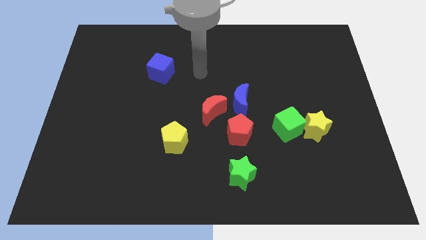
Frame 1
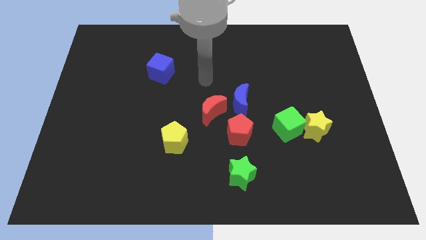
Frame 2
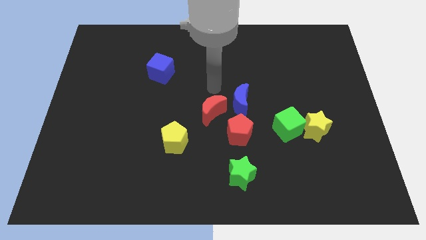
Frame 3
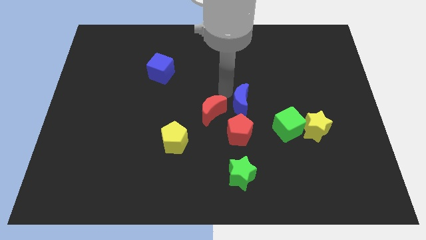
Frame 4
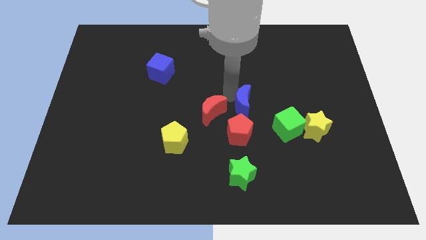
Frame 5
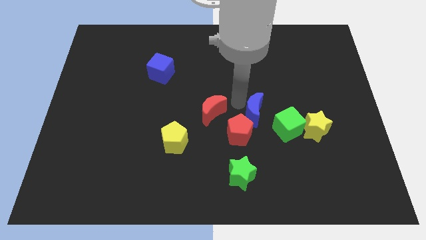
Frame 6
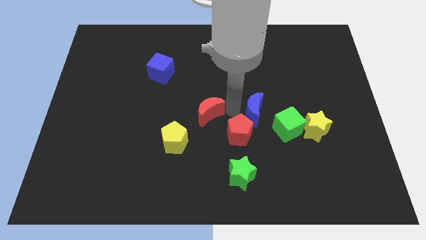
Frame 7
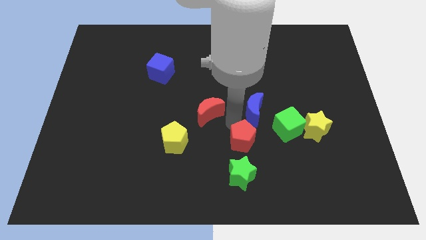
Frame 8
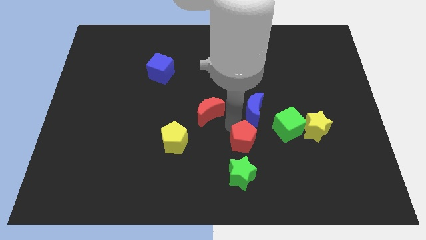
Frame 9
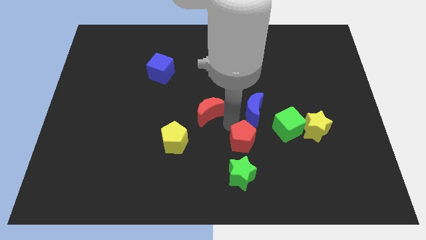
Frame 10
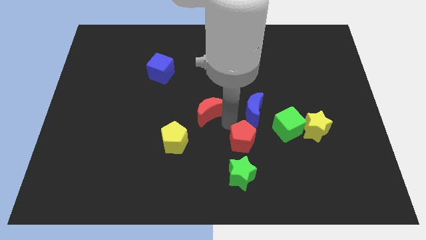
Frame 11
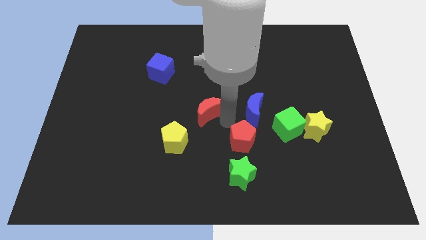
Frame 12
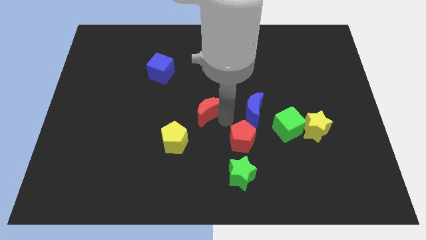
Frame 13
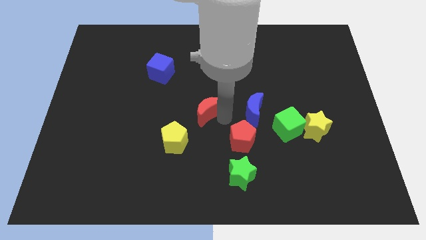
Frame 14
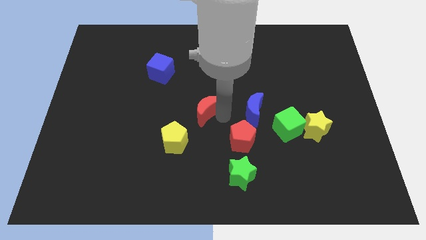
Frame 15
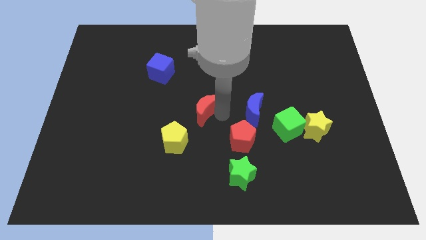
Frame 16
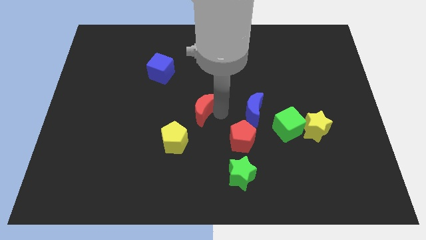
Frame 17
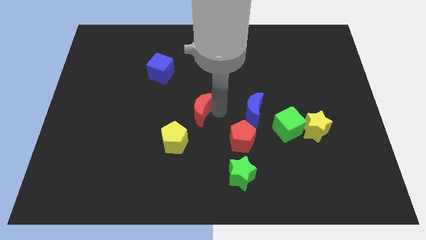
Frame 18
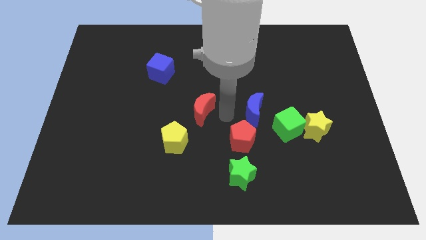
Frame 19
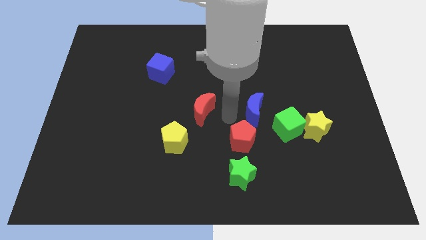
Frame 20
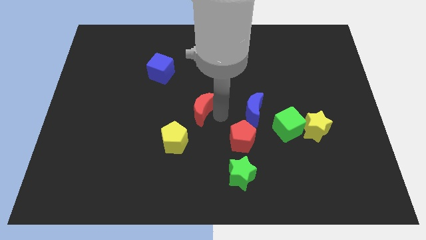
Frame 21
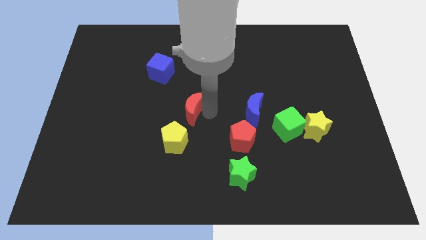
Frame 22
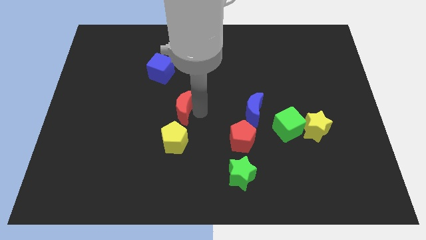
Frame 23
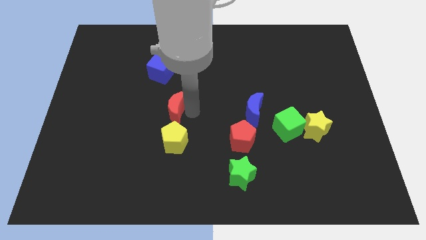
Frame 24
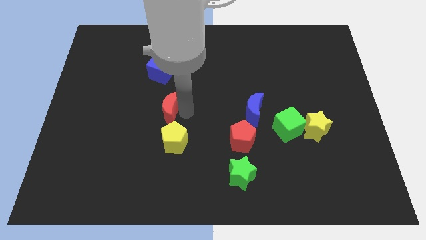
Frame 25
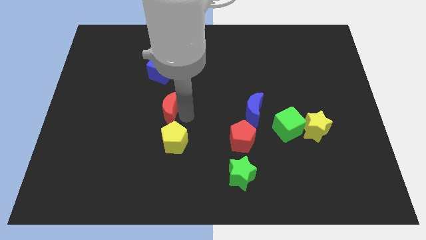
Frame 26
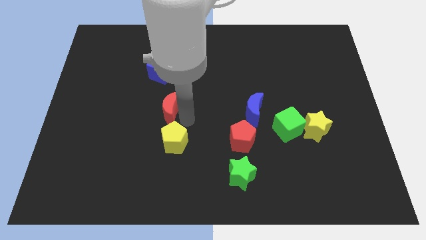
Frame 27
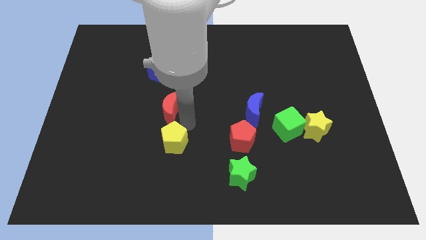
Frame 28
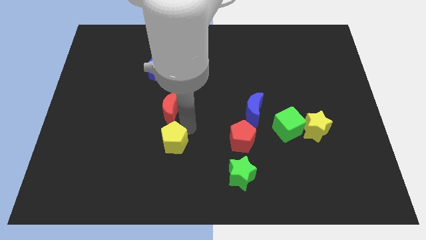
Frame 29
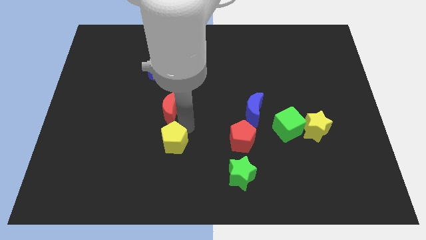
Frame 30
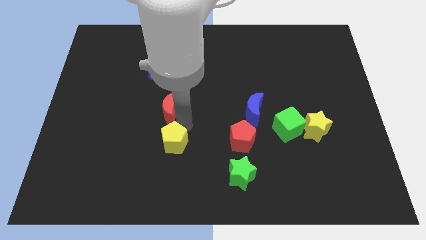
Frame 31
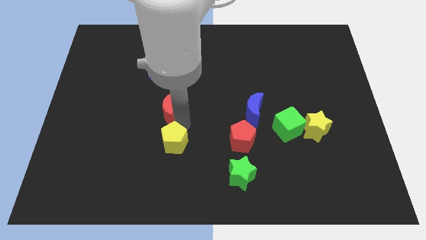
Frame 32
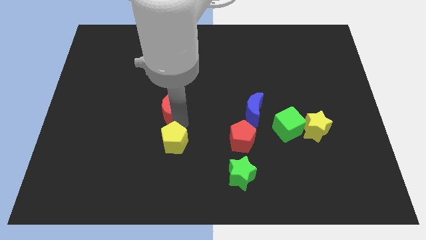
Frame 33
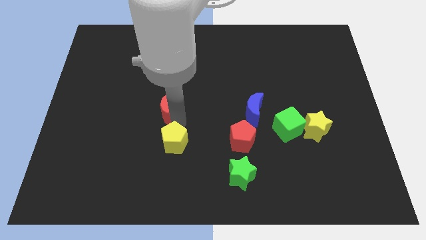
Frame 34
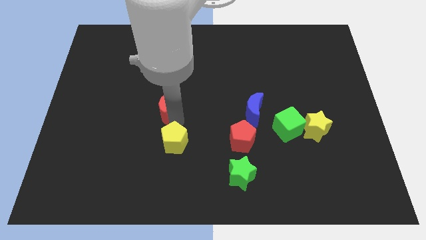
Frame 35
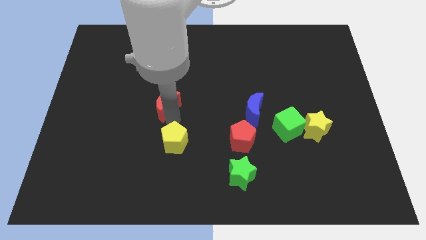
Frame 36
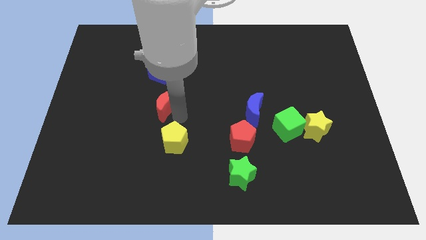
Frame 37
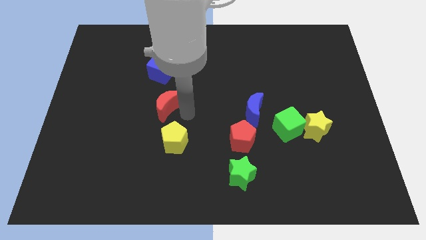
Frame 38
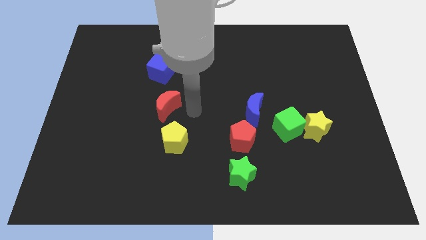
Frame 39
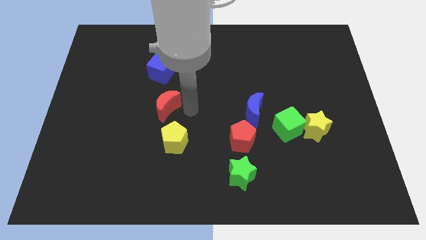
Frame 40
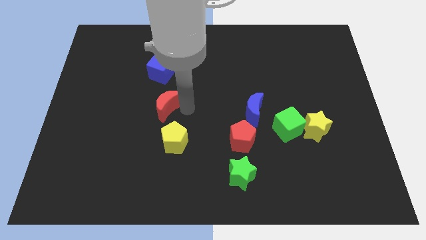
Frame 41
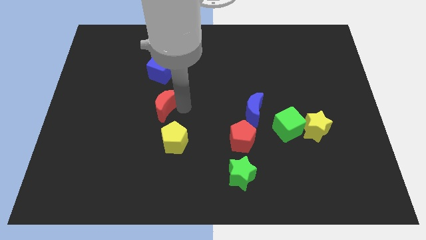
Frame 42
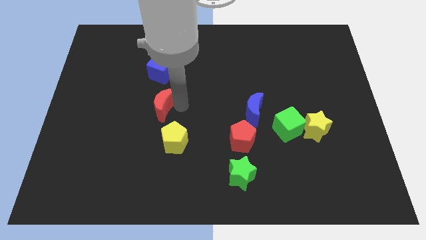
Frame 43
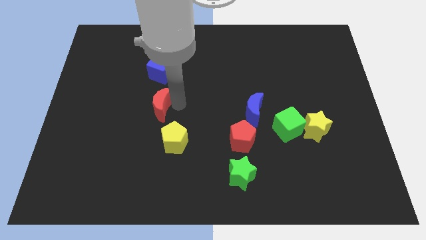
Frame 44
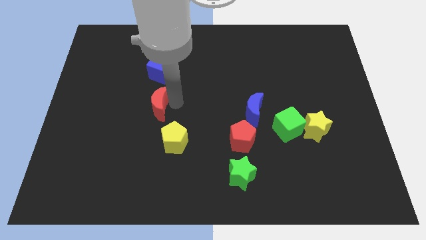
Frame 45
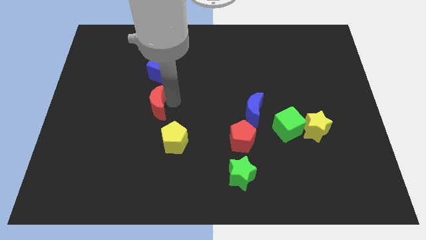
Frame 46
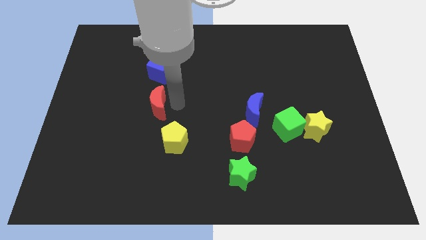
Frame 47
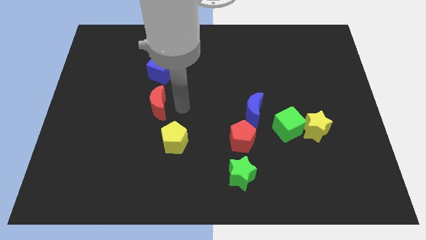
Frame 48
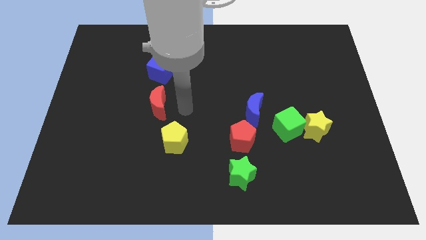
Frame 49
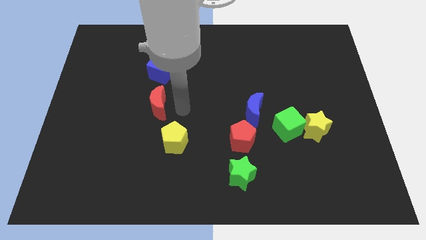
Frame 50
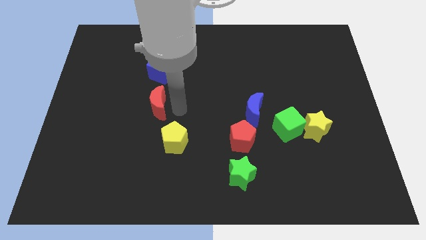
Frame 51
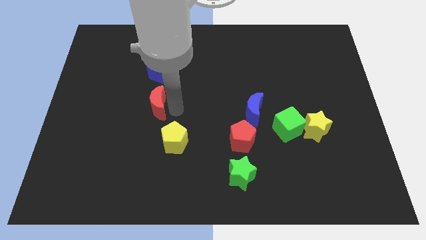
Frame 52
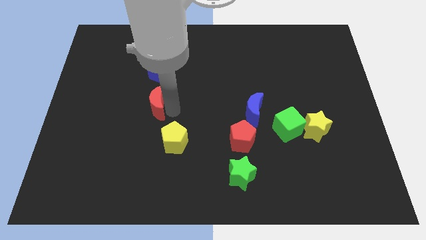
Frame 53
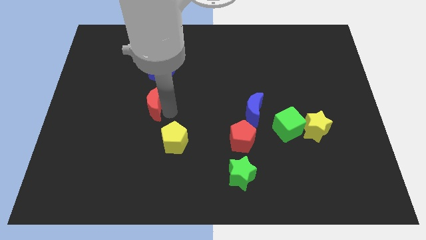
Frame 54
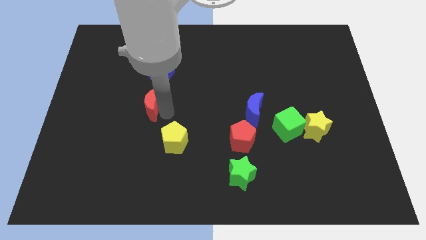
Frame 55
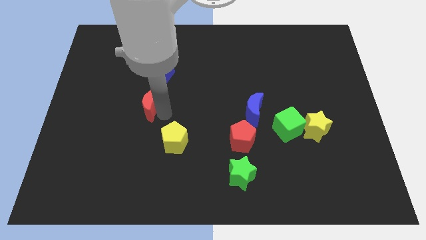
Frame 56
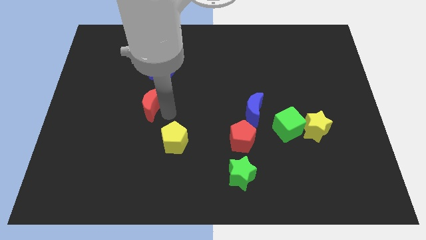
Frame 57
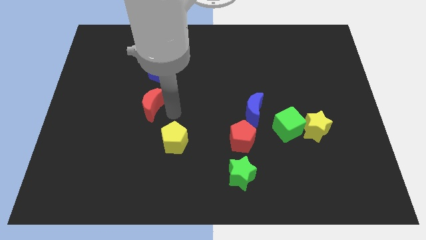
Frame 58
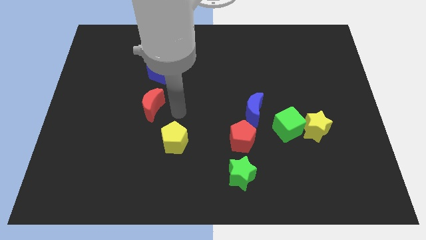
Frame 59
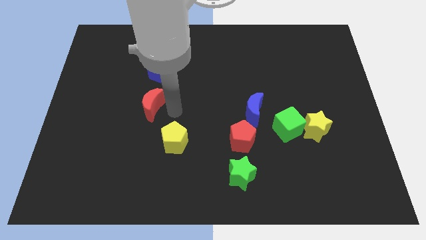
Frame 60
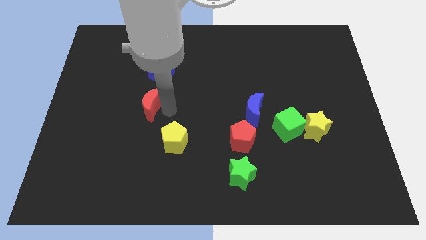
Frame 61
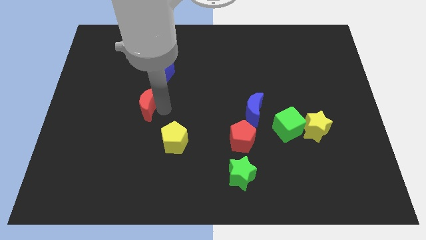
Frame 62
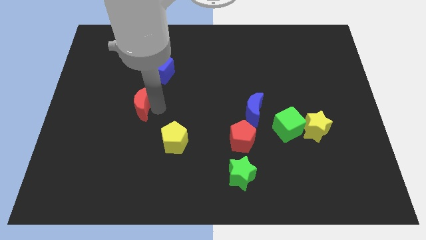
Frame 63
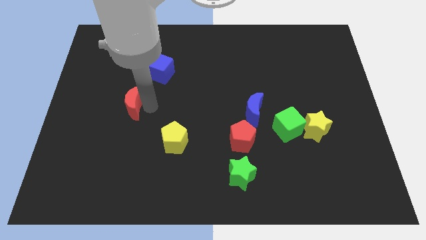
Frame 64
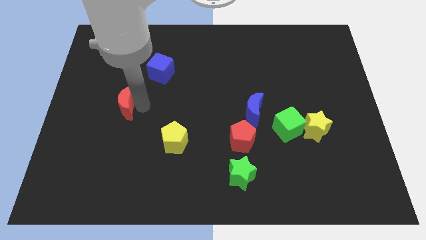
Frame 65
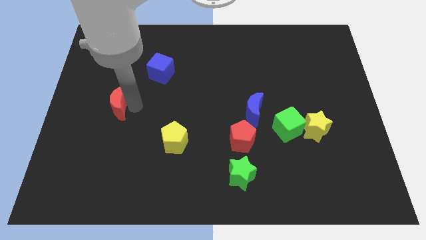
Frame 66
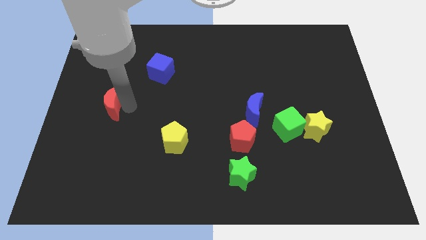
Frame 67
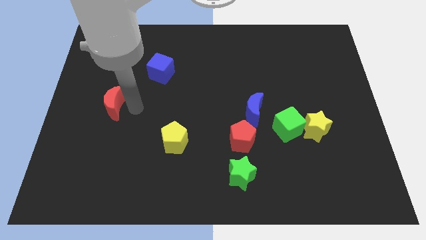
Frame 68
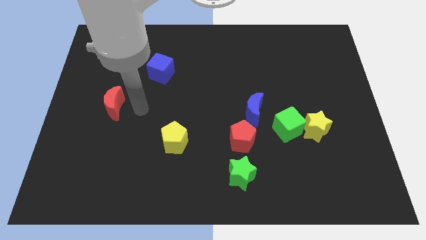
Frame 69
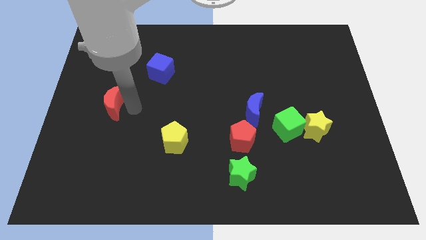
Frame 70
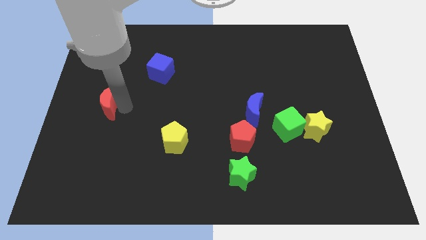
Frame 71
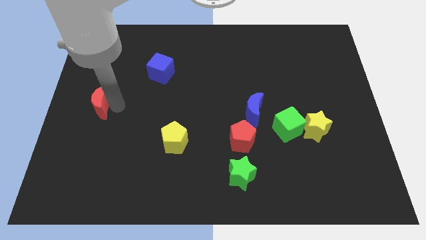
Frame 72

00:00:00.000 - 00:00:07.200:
move the red moon to the center left

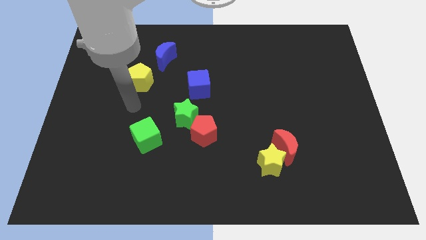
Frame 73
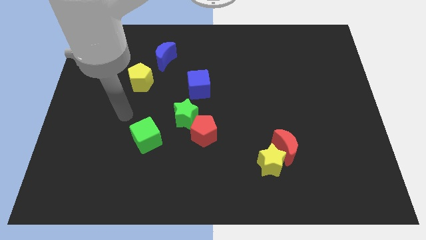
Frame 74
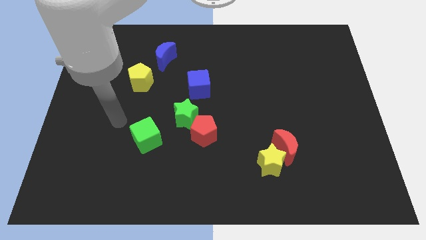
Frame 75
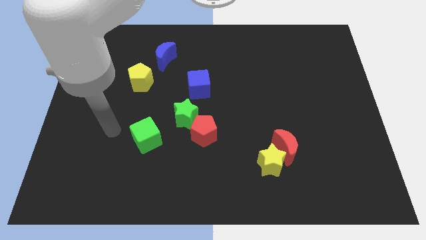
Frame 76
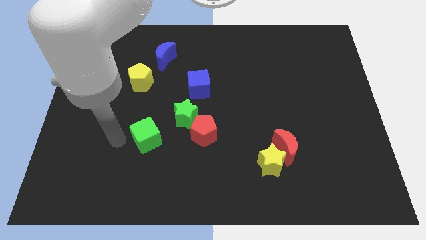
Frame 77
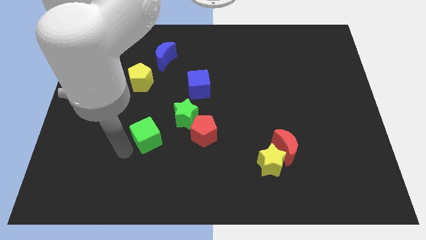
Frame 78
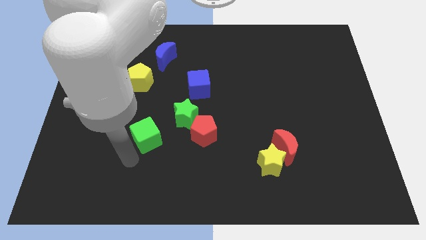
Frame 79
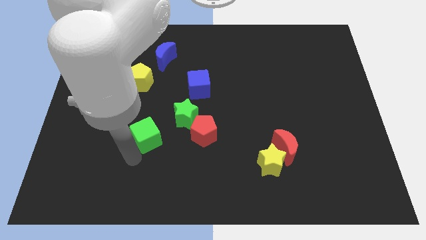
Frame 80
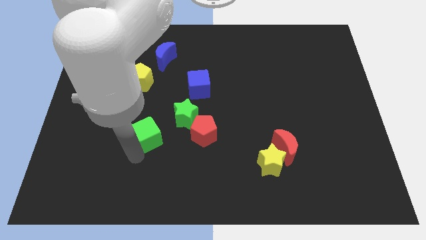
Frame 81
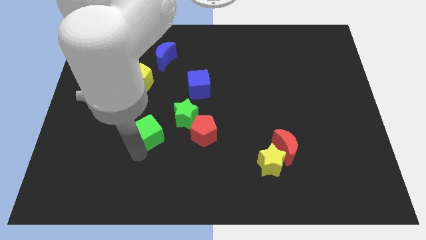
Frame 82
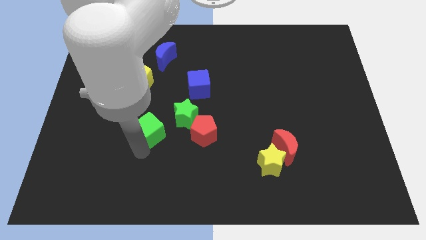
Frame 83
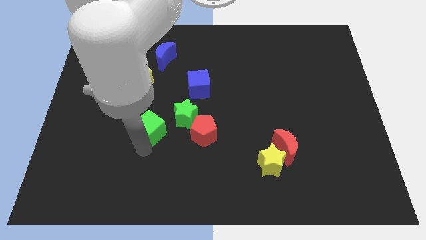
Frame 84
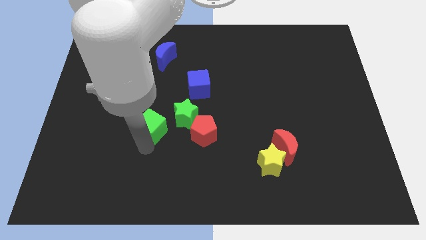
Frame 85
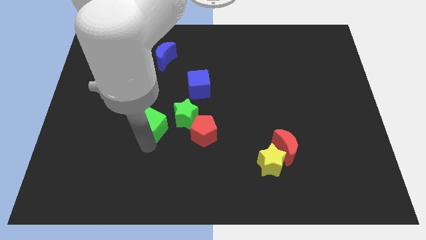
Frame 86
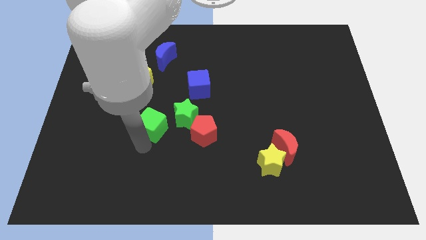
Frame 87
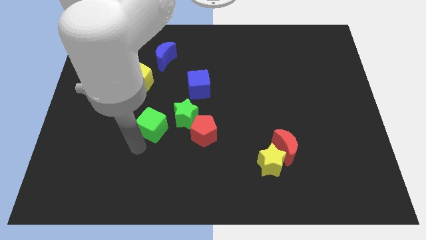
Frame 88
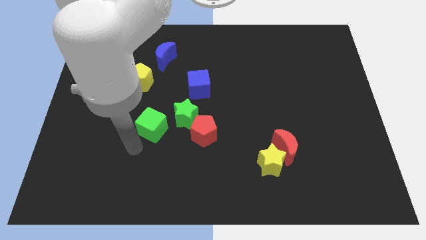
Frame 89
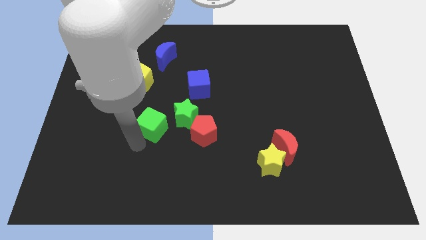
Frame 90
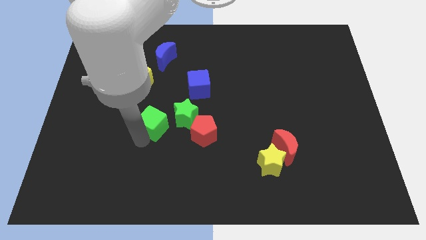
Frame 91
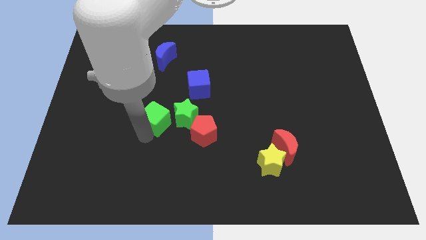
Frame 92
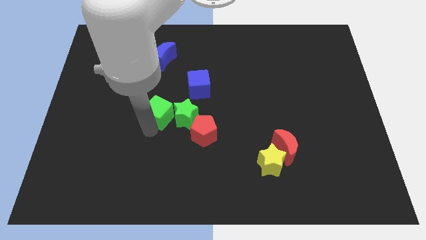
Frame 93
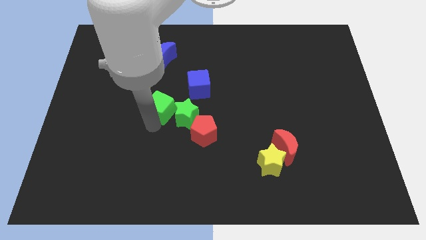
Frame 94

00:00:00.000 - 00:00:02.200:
push the green cube to the center of the board
